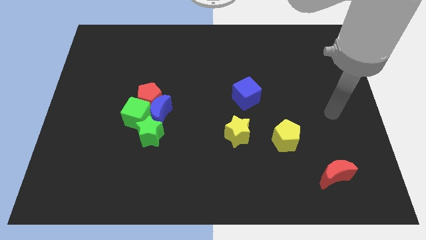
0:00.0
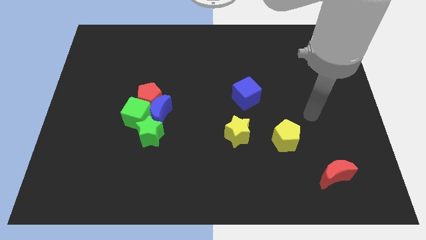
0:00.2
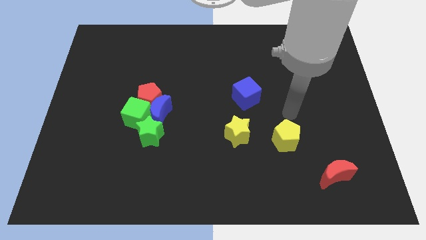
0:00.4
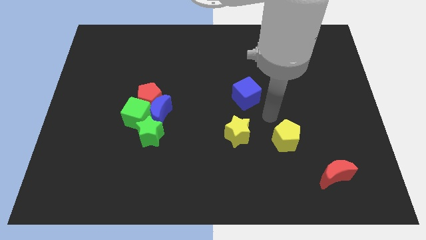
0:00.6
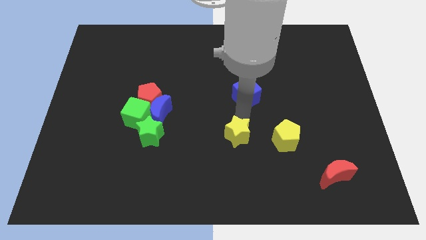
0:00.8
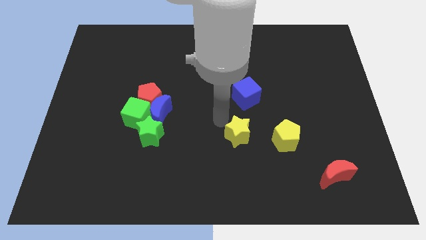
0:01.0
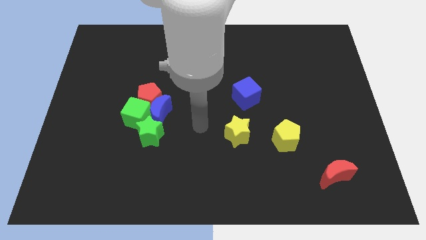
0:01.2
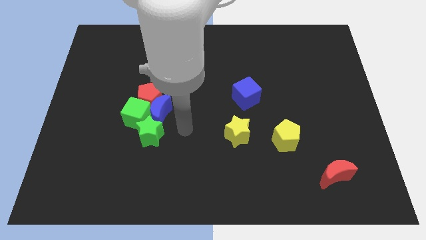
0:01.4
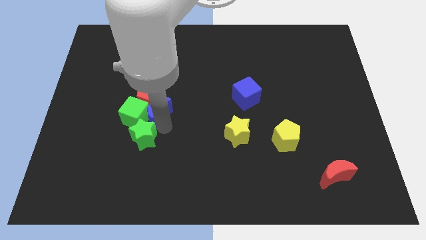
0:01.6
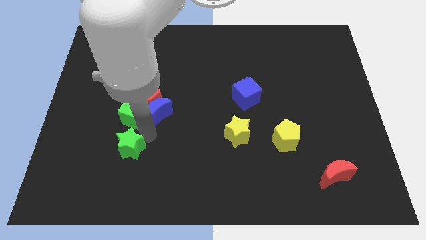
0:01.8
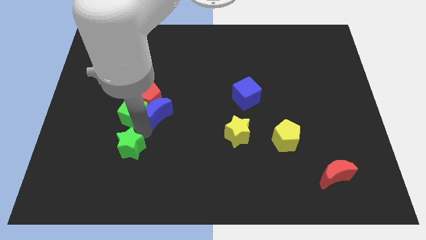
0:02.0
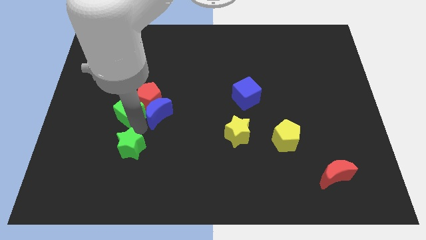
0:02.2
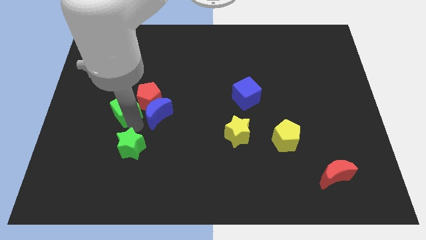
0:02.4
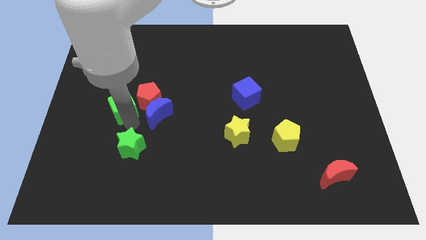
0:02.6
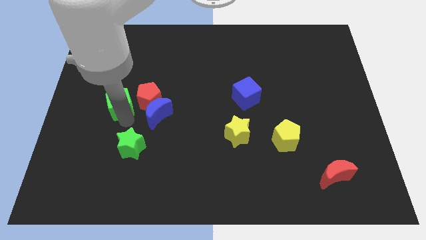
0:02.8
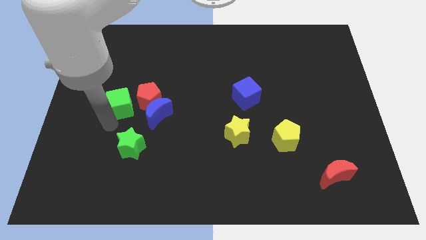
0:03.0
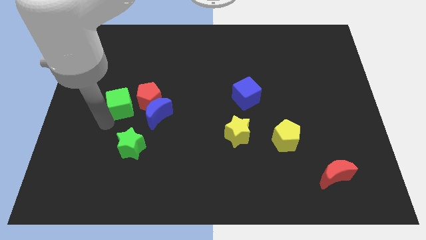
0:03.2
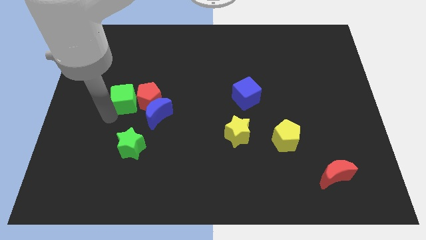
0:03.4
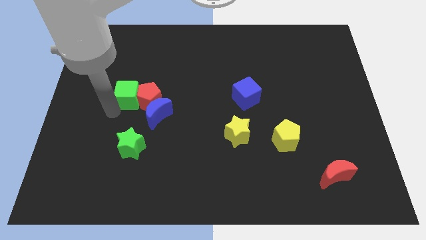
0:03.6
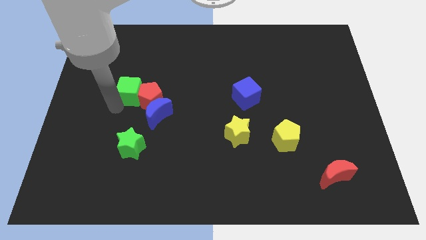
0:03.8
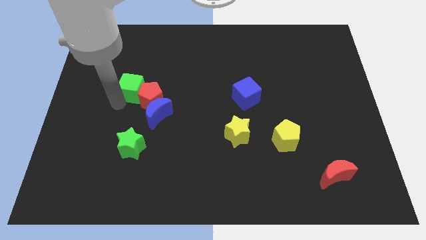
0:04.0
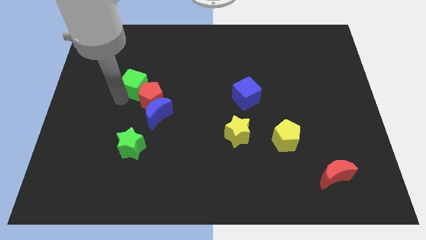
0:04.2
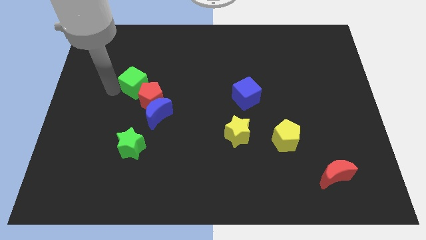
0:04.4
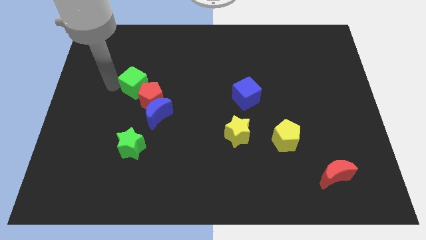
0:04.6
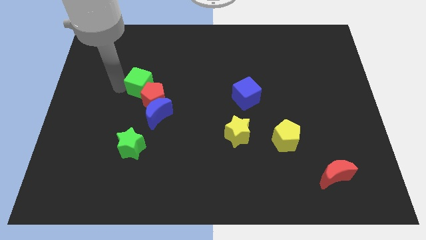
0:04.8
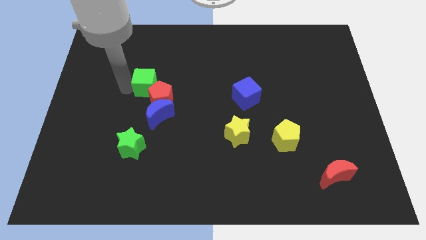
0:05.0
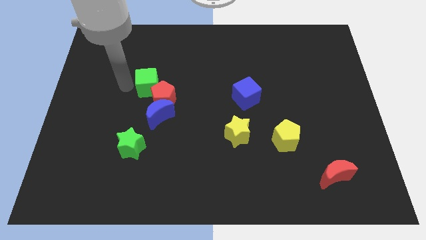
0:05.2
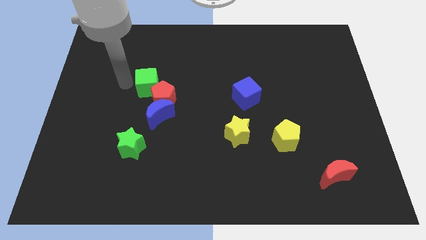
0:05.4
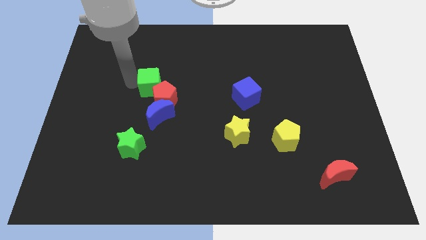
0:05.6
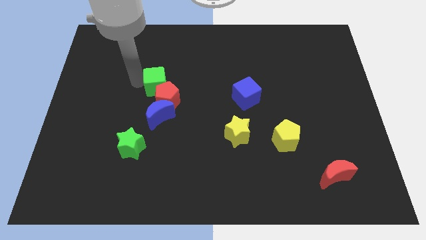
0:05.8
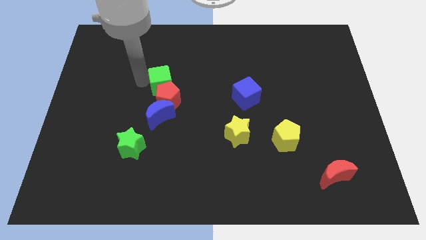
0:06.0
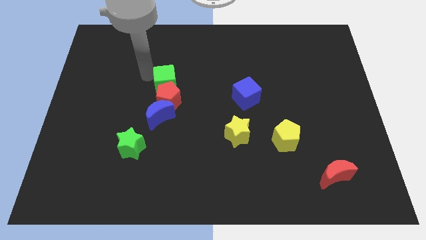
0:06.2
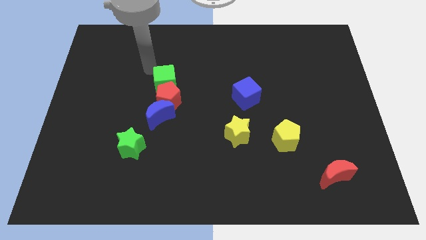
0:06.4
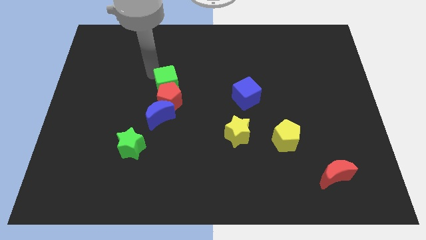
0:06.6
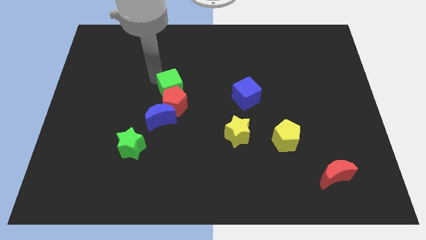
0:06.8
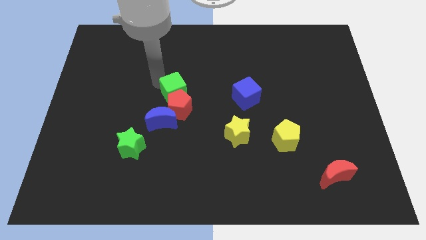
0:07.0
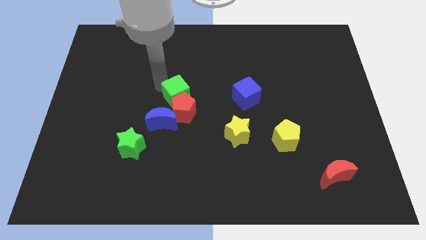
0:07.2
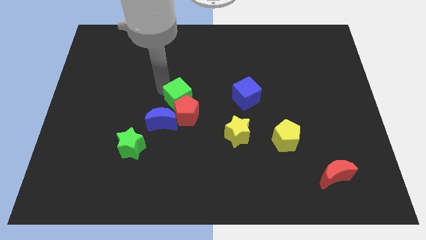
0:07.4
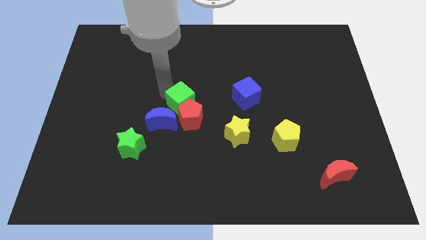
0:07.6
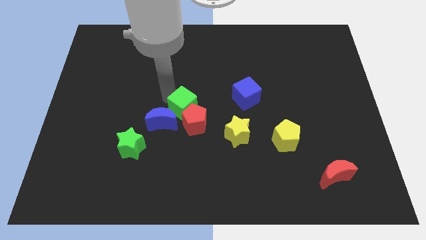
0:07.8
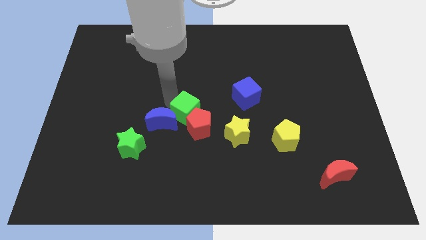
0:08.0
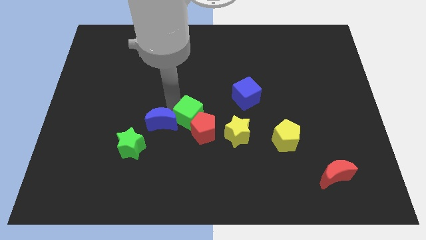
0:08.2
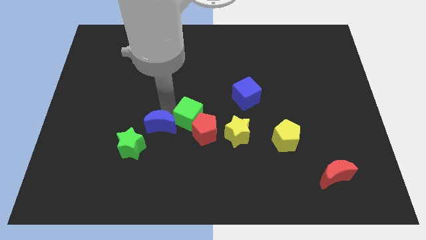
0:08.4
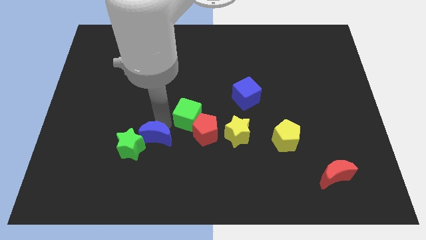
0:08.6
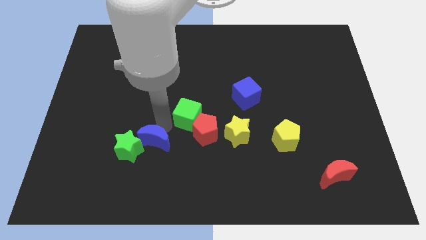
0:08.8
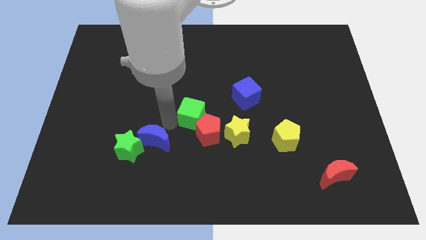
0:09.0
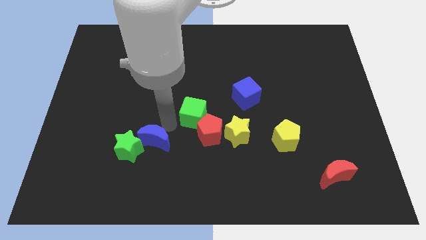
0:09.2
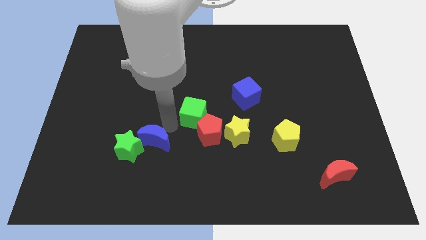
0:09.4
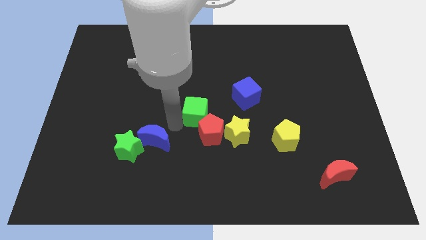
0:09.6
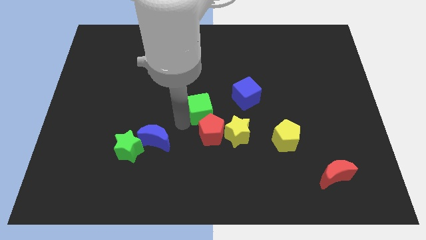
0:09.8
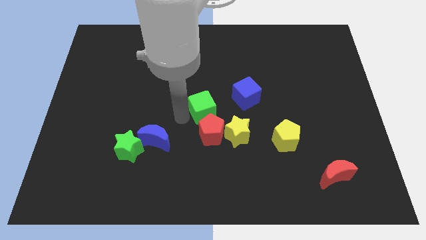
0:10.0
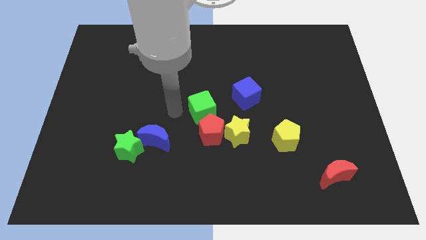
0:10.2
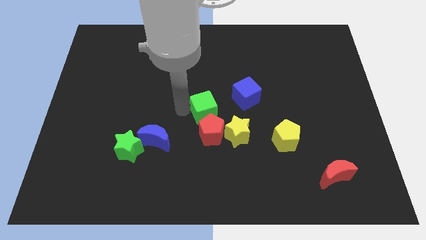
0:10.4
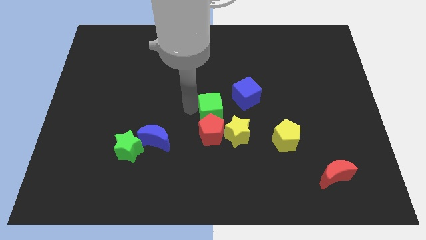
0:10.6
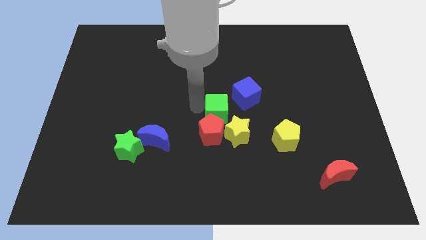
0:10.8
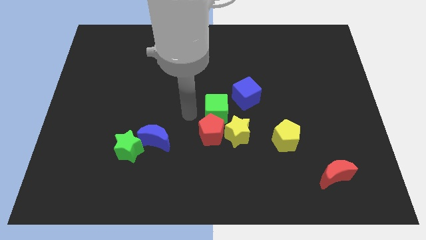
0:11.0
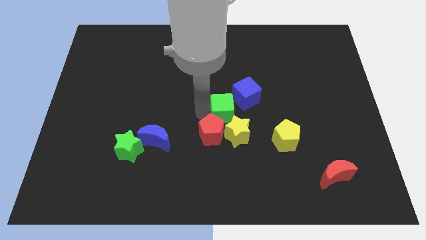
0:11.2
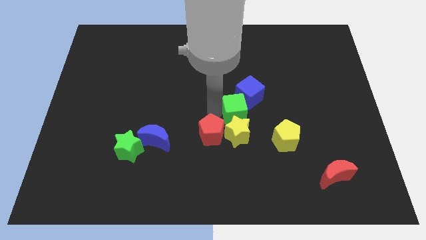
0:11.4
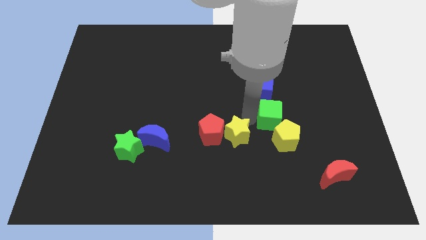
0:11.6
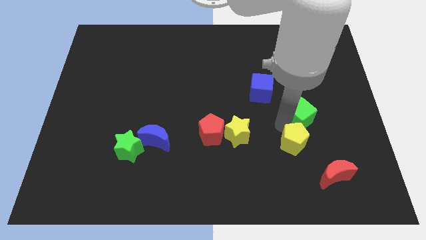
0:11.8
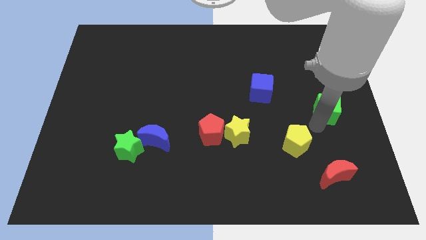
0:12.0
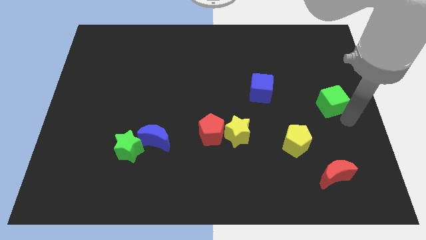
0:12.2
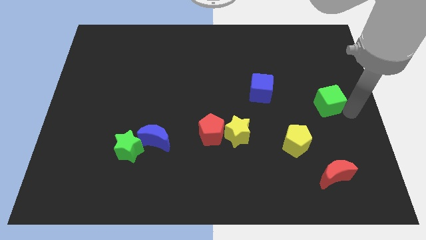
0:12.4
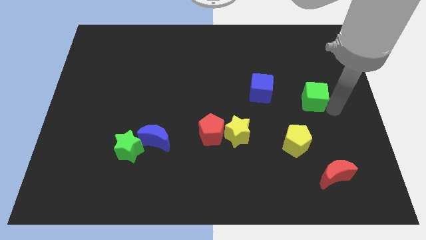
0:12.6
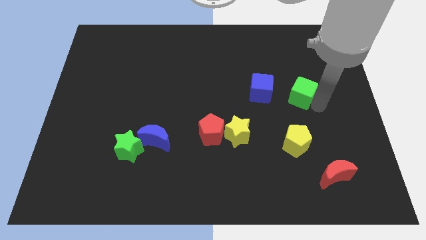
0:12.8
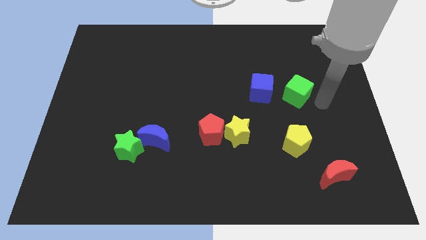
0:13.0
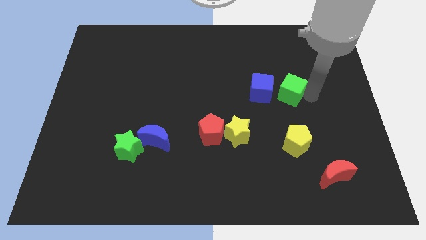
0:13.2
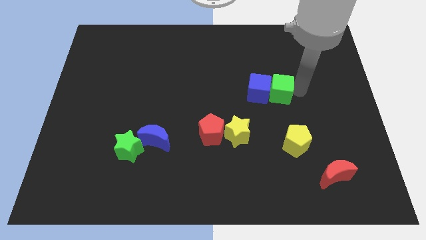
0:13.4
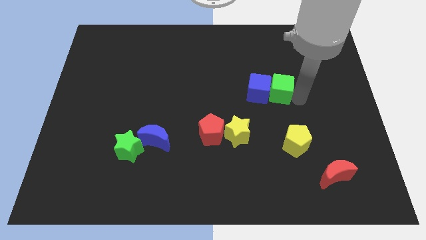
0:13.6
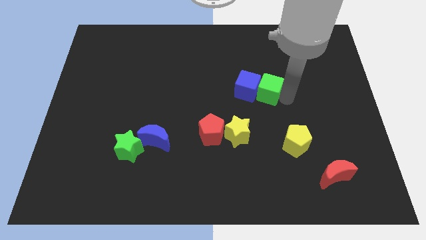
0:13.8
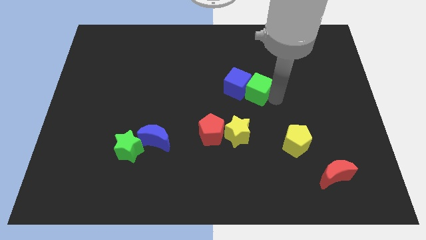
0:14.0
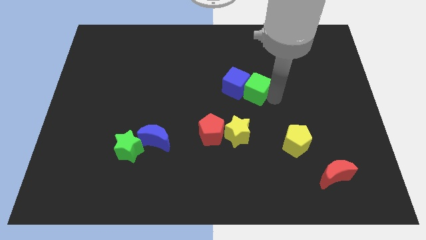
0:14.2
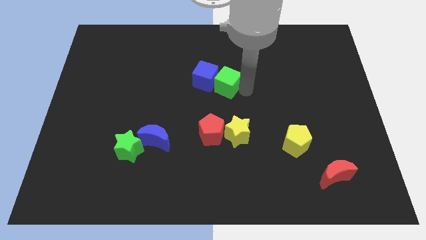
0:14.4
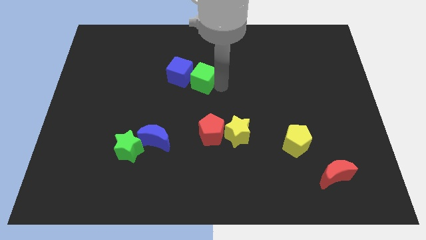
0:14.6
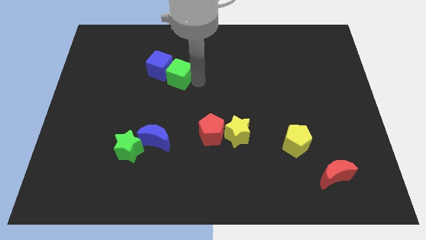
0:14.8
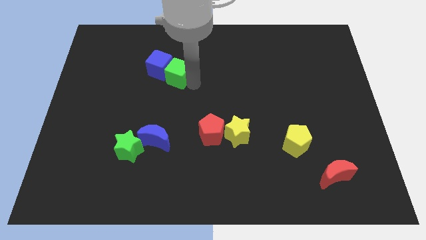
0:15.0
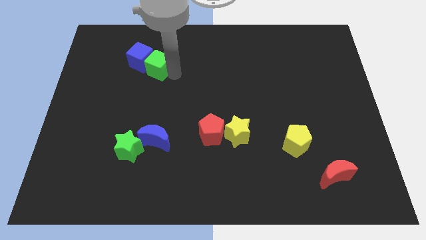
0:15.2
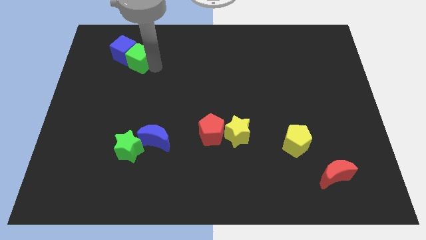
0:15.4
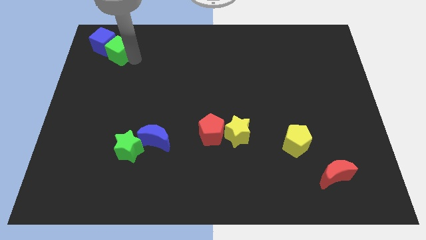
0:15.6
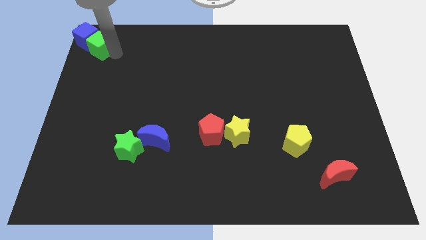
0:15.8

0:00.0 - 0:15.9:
move the green cube to the top left of the board
